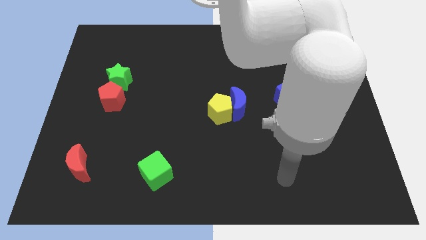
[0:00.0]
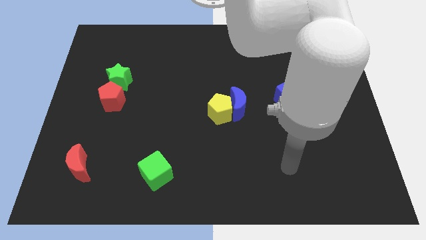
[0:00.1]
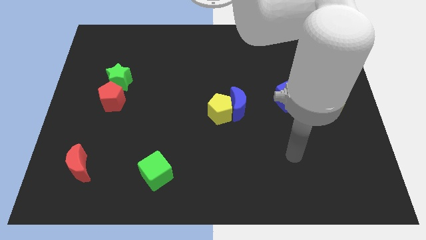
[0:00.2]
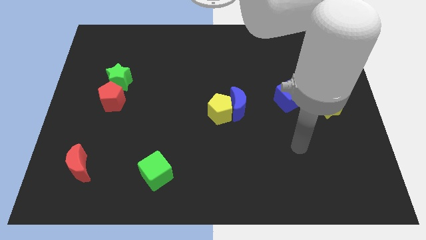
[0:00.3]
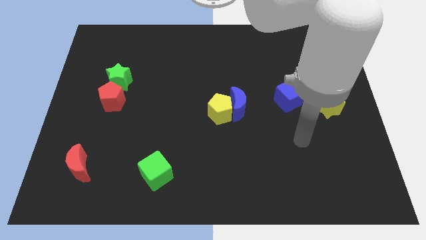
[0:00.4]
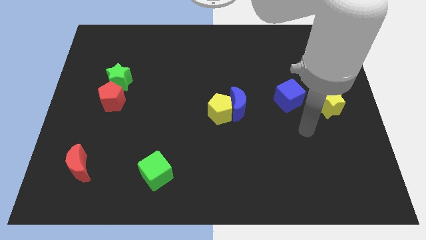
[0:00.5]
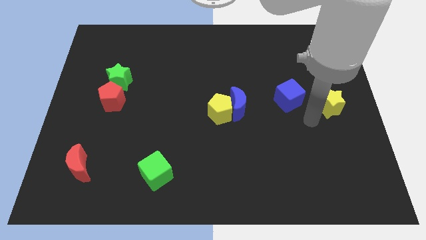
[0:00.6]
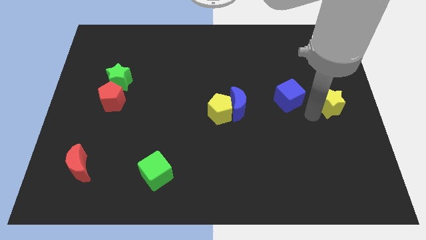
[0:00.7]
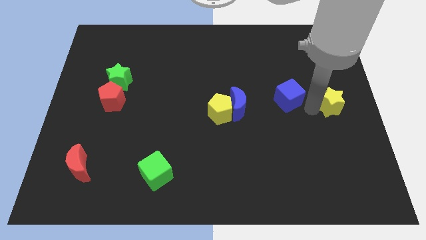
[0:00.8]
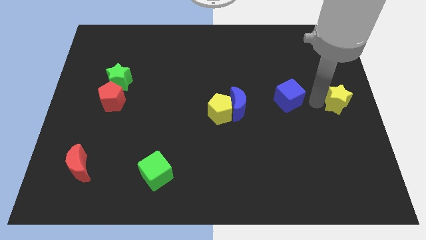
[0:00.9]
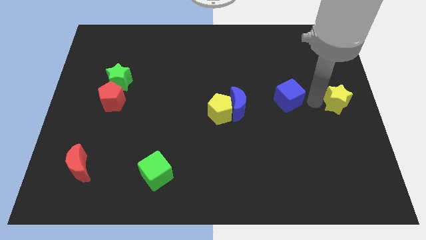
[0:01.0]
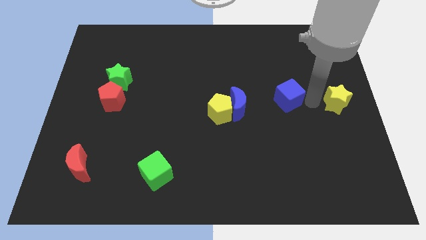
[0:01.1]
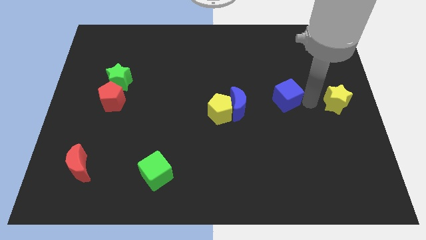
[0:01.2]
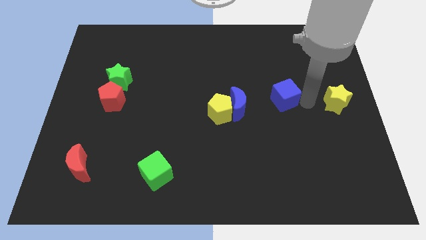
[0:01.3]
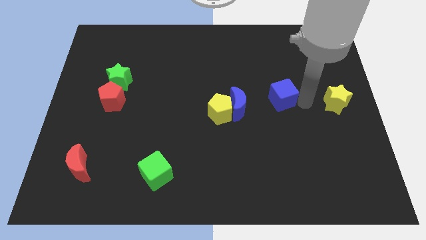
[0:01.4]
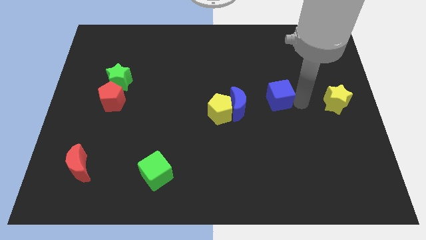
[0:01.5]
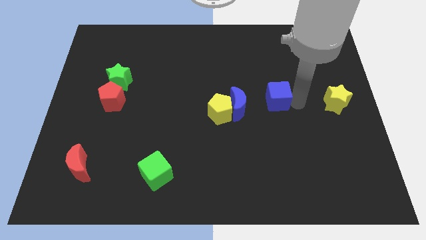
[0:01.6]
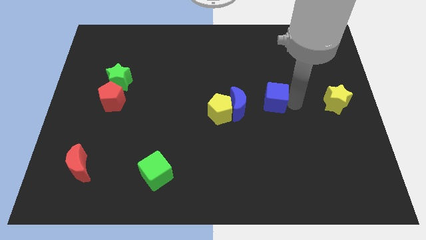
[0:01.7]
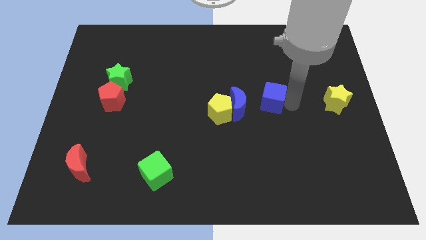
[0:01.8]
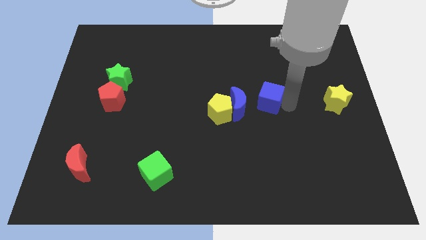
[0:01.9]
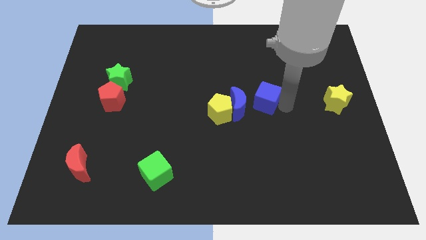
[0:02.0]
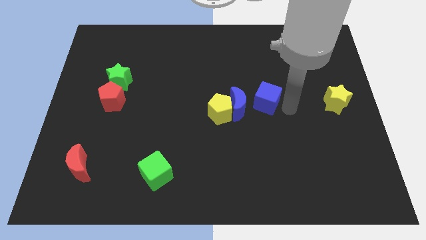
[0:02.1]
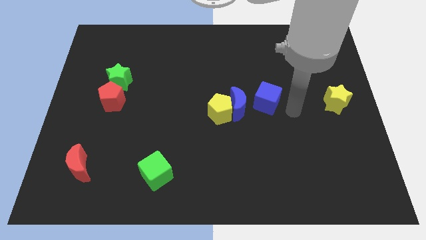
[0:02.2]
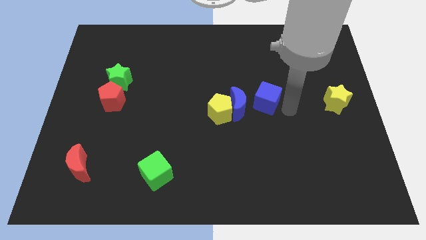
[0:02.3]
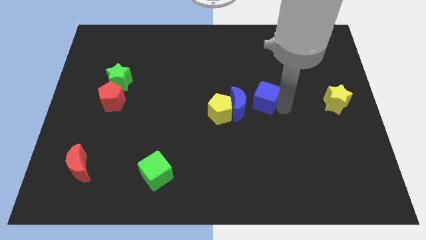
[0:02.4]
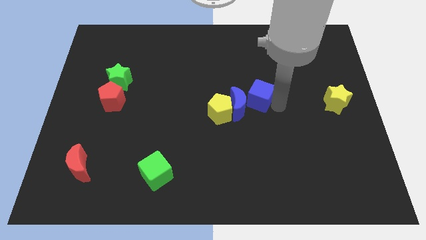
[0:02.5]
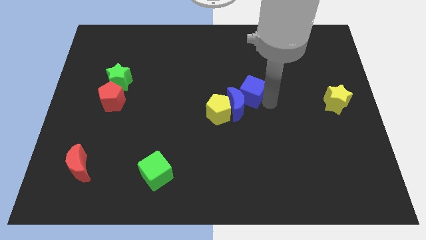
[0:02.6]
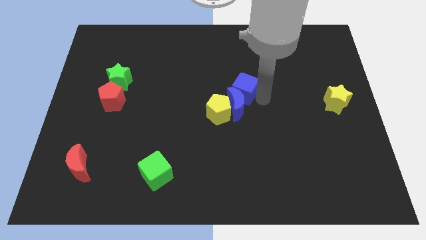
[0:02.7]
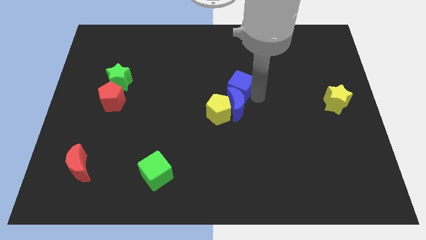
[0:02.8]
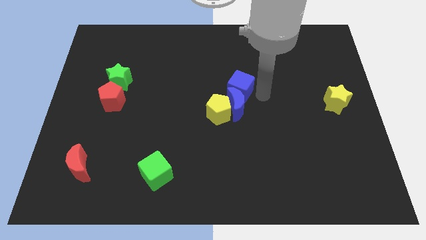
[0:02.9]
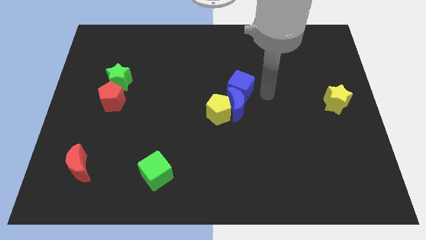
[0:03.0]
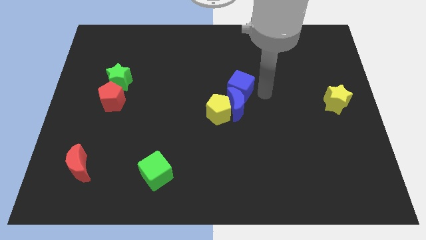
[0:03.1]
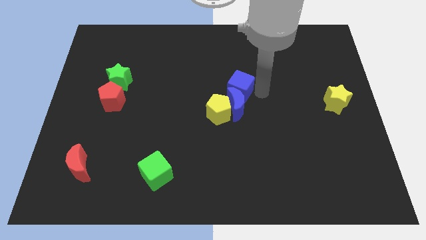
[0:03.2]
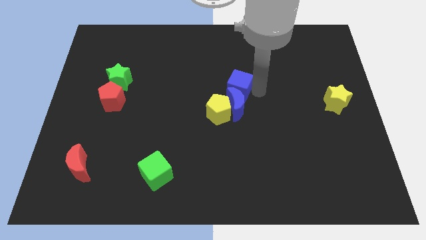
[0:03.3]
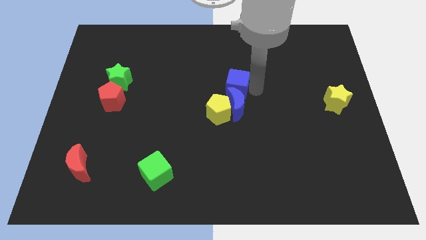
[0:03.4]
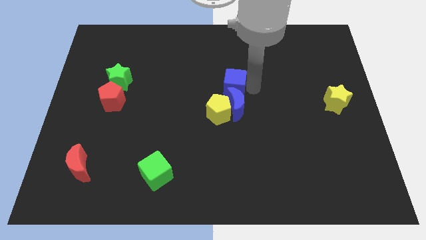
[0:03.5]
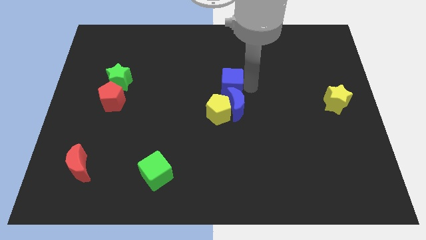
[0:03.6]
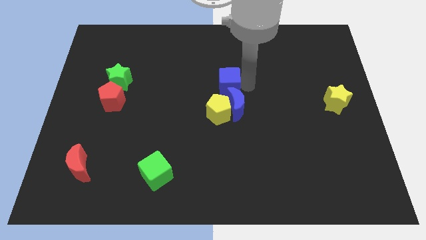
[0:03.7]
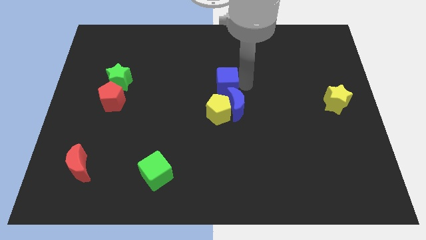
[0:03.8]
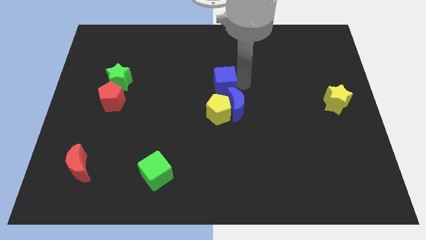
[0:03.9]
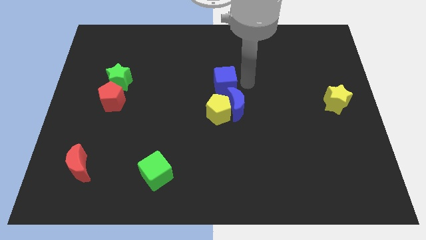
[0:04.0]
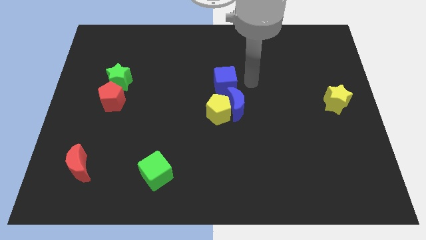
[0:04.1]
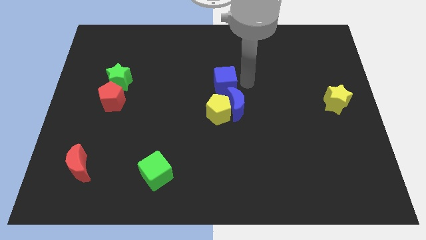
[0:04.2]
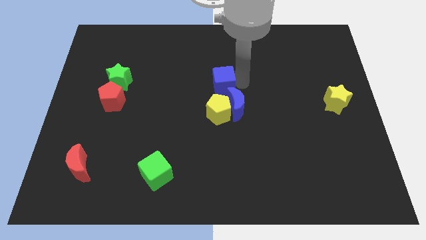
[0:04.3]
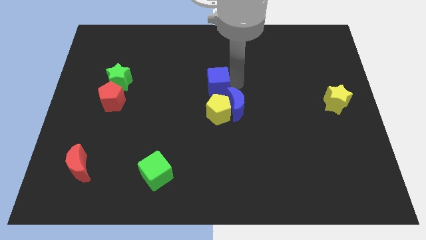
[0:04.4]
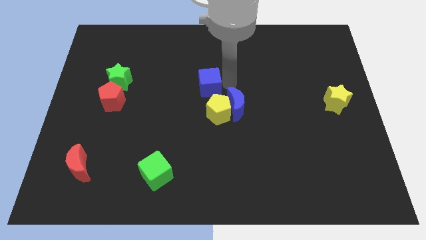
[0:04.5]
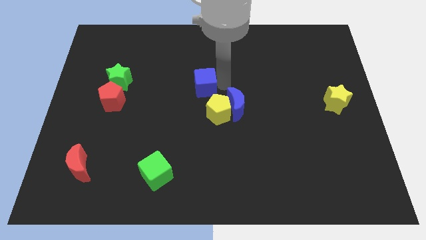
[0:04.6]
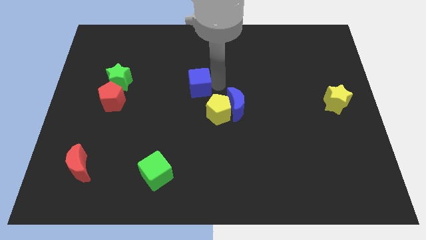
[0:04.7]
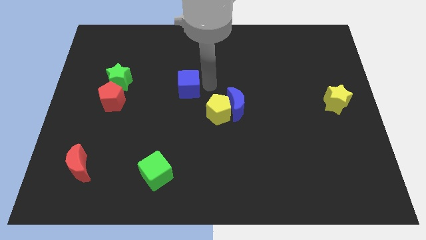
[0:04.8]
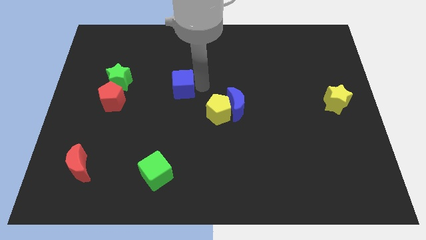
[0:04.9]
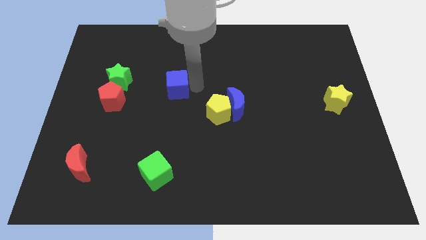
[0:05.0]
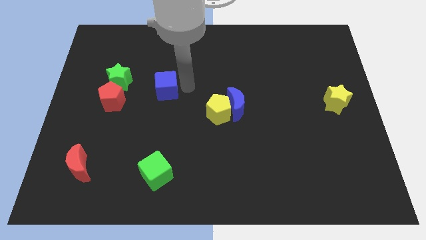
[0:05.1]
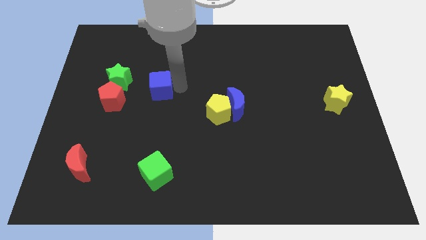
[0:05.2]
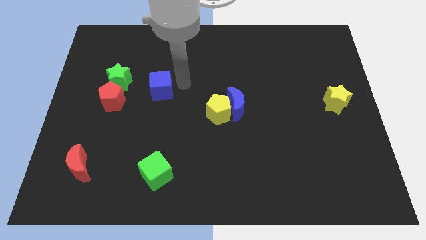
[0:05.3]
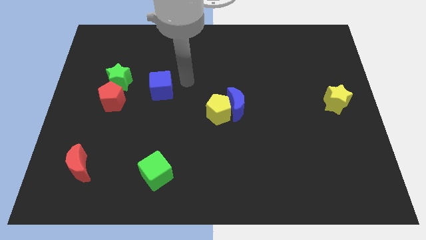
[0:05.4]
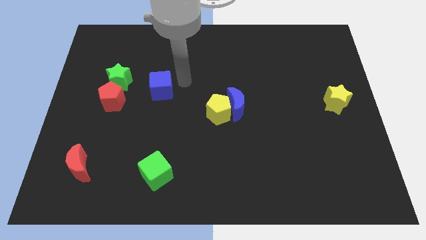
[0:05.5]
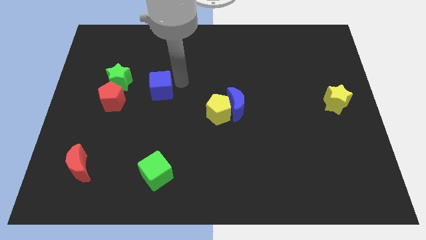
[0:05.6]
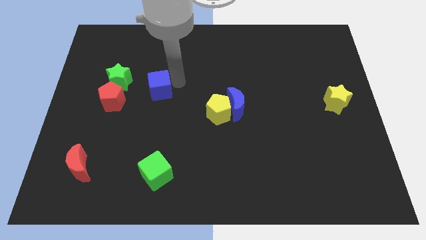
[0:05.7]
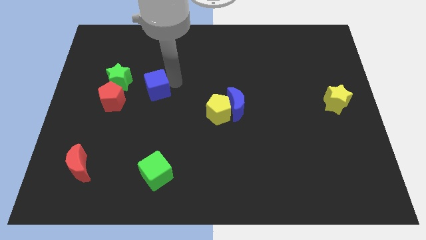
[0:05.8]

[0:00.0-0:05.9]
put the blue cube diagonally down and to the right of the green star

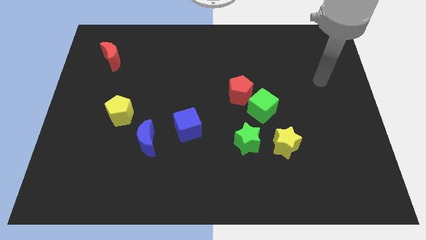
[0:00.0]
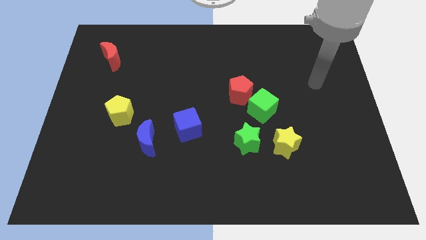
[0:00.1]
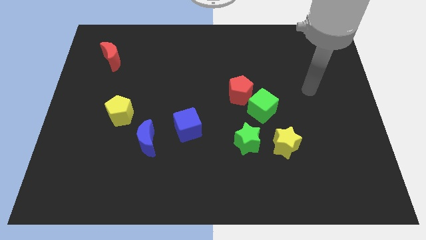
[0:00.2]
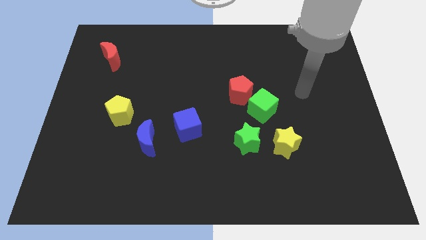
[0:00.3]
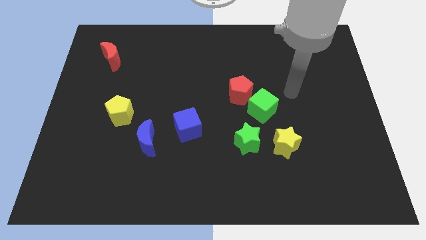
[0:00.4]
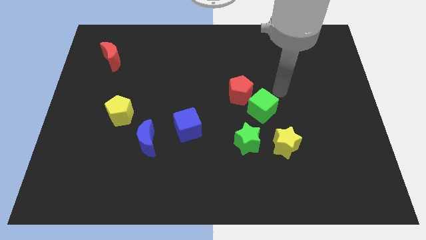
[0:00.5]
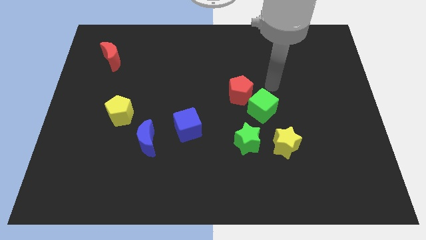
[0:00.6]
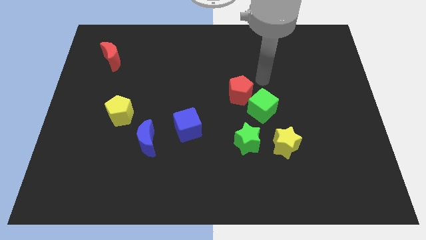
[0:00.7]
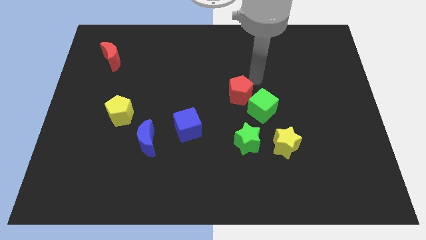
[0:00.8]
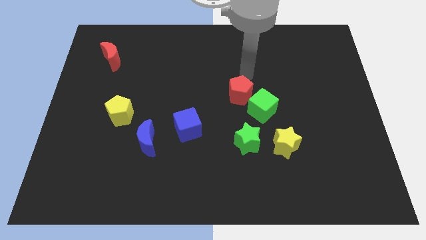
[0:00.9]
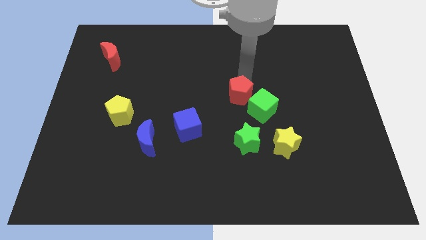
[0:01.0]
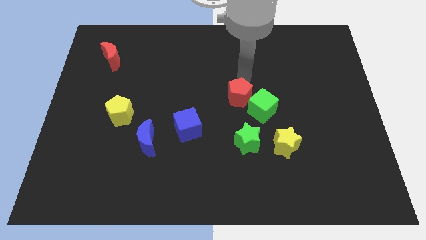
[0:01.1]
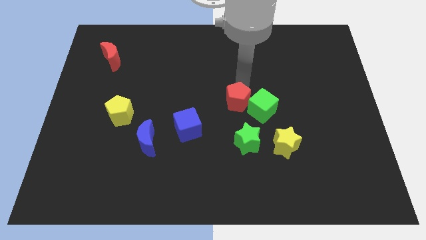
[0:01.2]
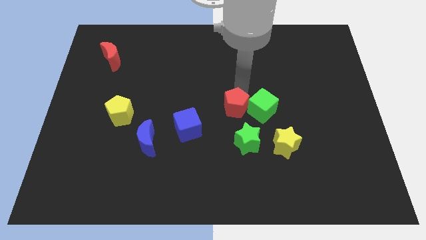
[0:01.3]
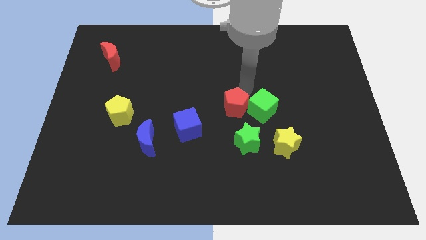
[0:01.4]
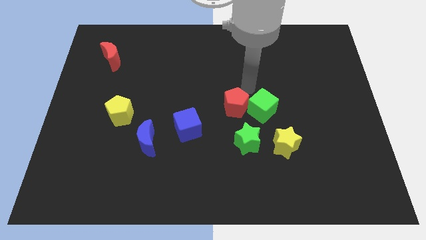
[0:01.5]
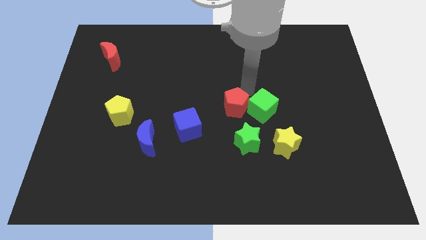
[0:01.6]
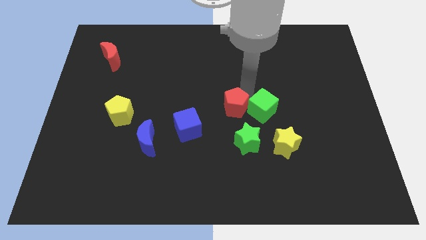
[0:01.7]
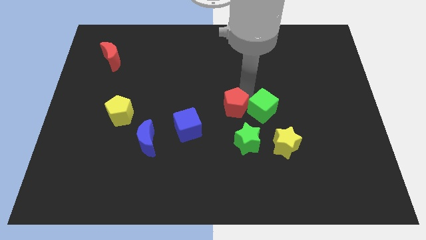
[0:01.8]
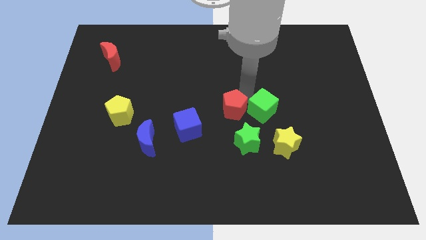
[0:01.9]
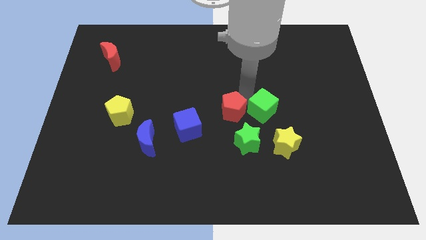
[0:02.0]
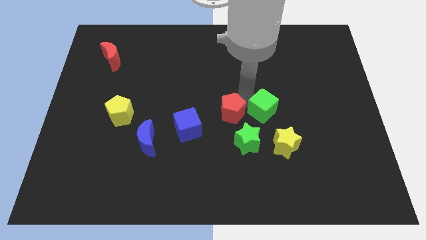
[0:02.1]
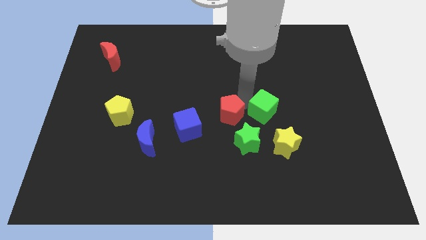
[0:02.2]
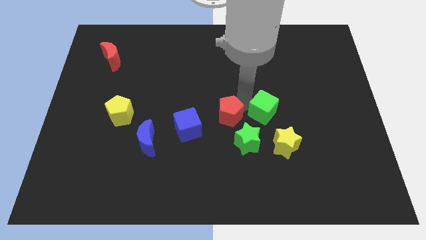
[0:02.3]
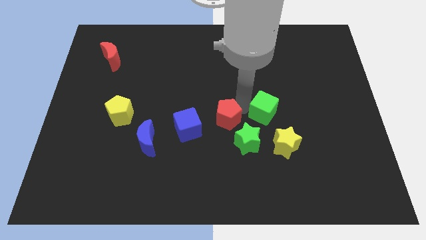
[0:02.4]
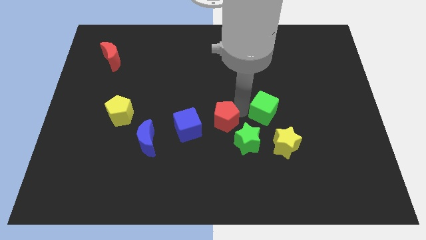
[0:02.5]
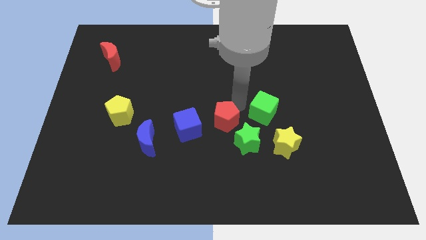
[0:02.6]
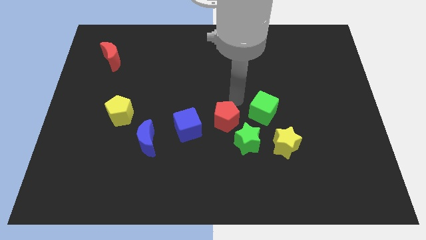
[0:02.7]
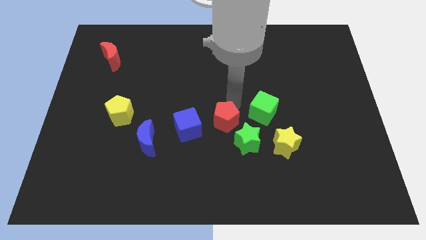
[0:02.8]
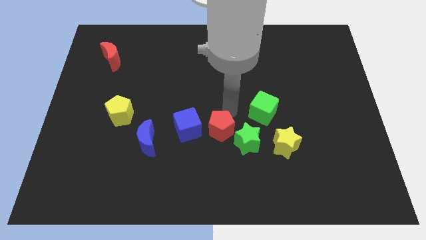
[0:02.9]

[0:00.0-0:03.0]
put the red pentagon to the bottom right of the blue cube
